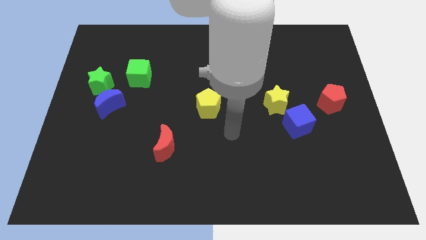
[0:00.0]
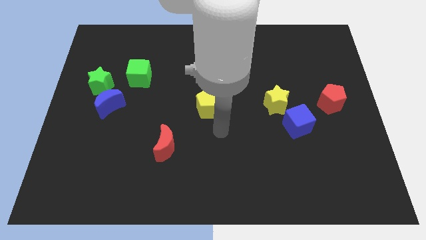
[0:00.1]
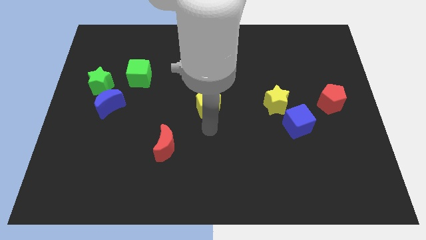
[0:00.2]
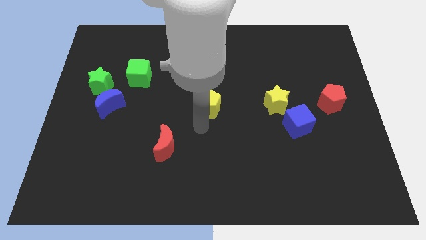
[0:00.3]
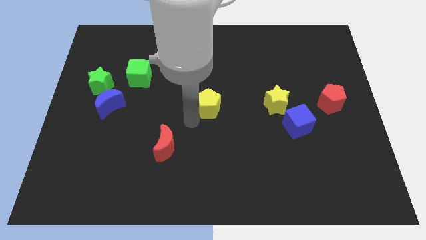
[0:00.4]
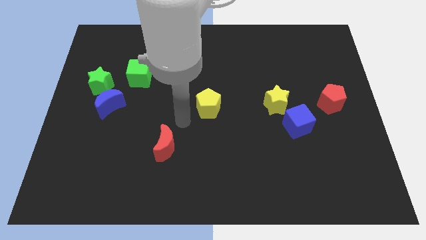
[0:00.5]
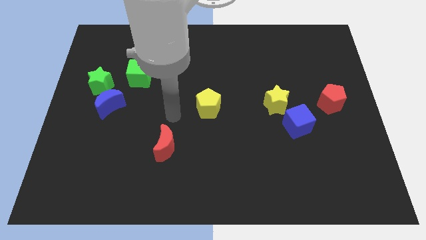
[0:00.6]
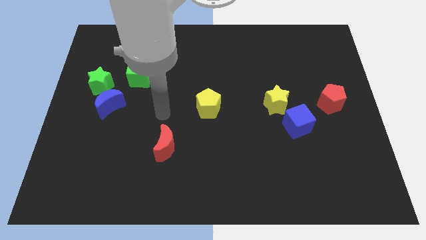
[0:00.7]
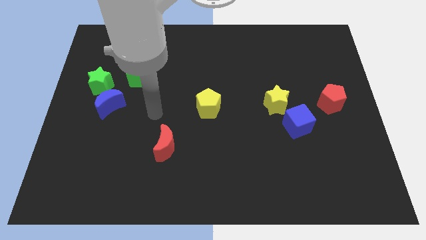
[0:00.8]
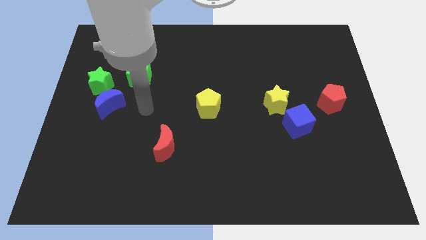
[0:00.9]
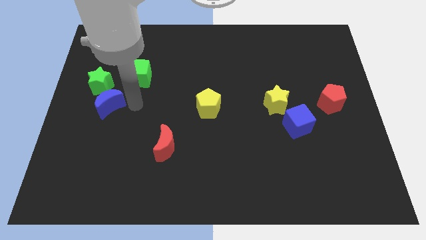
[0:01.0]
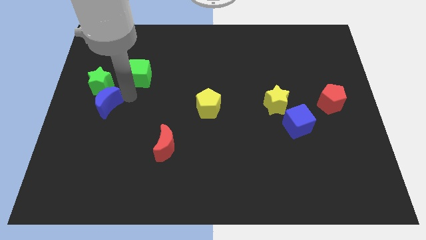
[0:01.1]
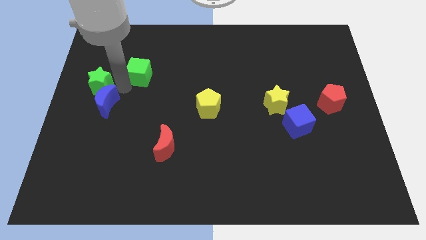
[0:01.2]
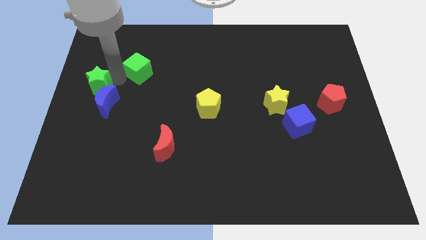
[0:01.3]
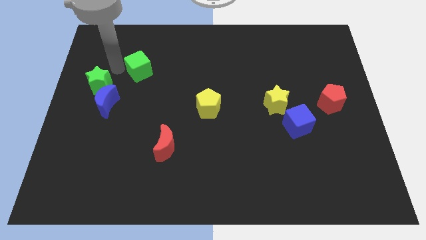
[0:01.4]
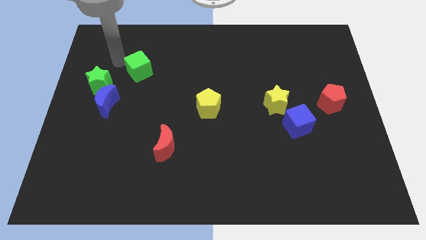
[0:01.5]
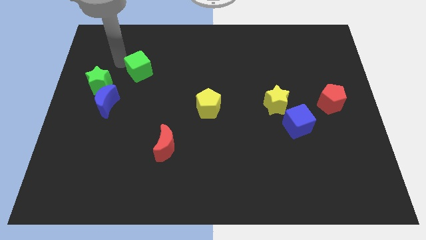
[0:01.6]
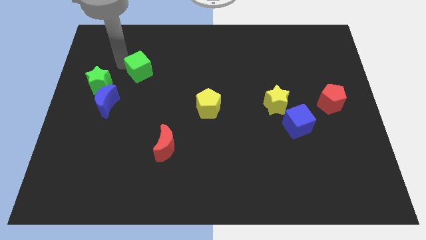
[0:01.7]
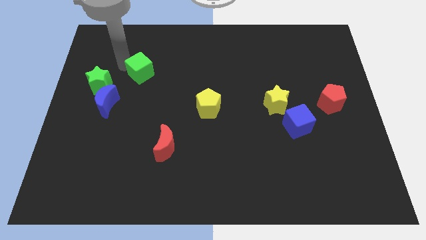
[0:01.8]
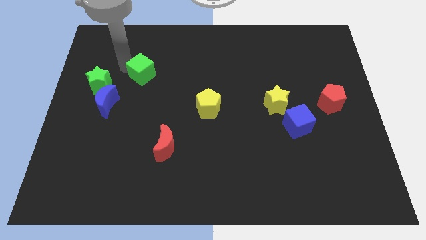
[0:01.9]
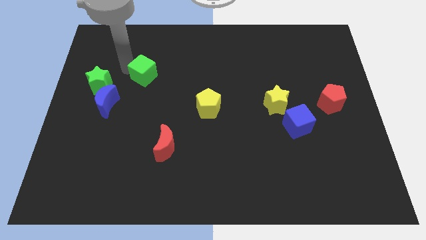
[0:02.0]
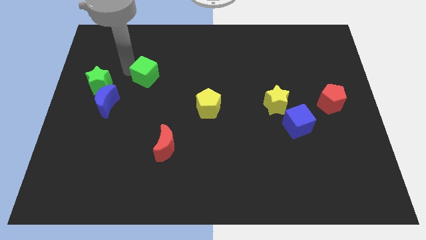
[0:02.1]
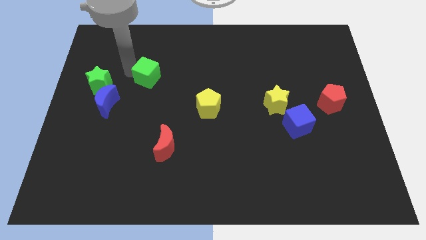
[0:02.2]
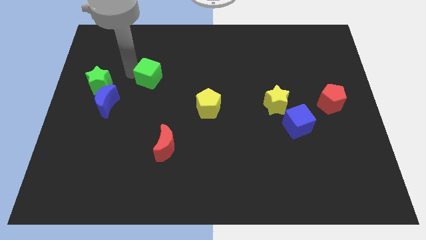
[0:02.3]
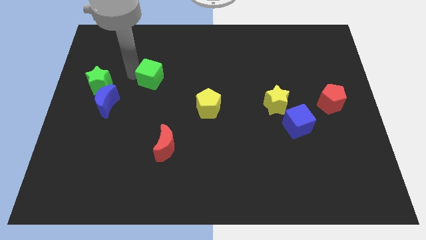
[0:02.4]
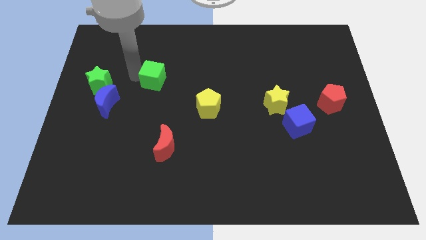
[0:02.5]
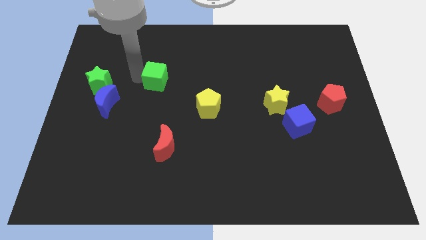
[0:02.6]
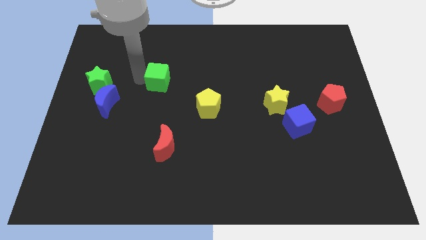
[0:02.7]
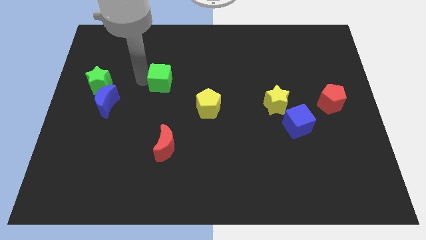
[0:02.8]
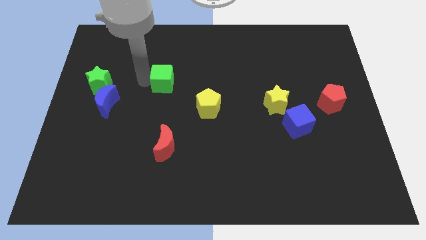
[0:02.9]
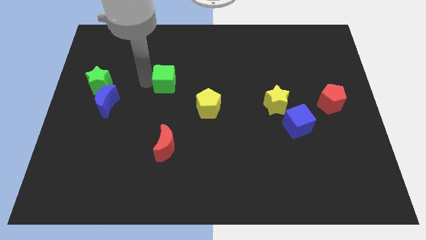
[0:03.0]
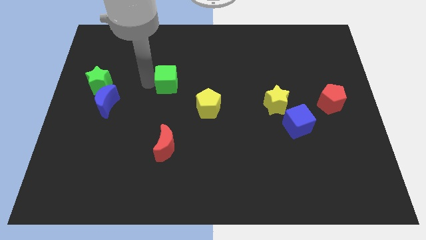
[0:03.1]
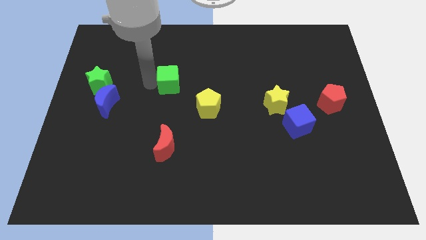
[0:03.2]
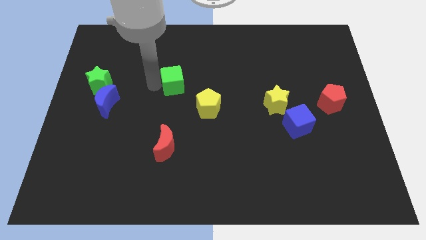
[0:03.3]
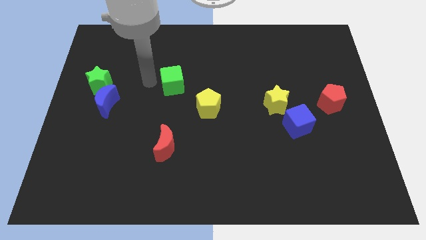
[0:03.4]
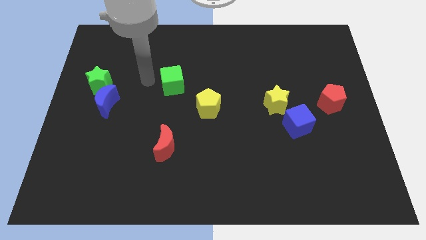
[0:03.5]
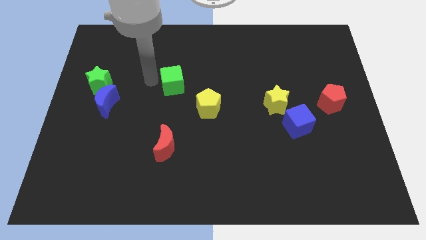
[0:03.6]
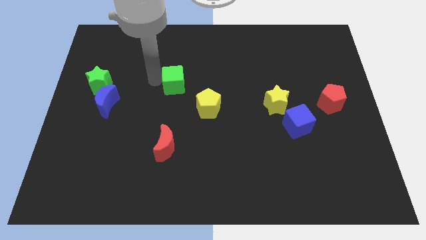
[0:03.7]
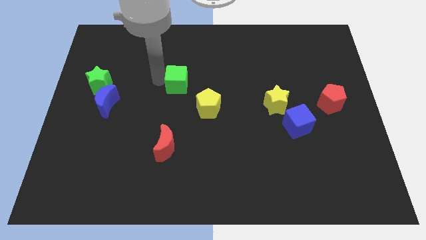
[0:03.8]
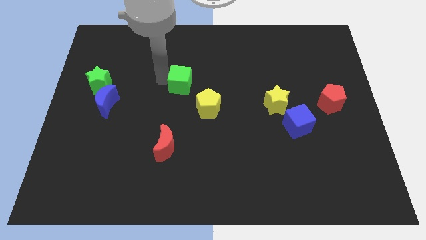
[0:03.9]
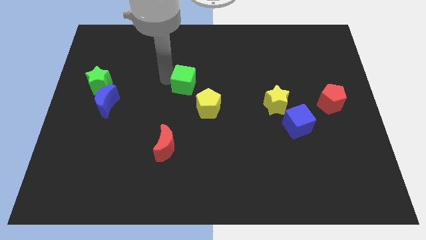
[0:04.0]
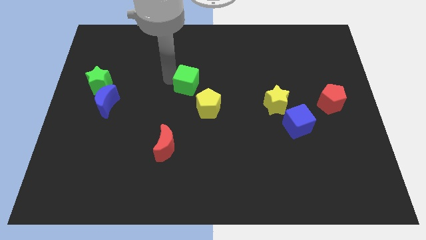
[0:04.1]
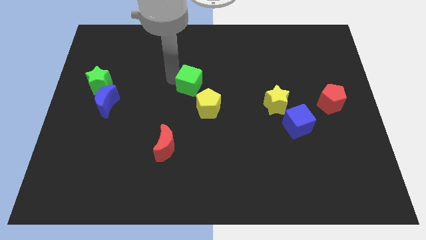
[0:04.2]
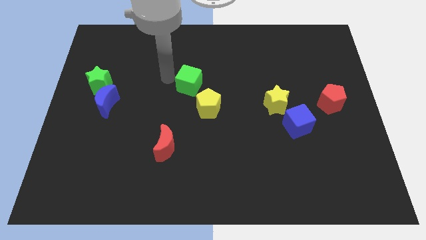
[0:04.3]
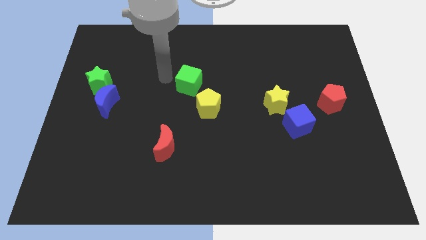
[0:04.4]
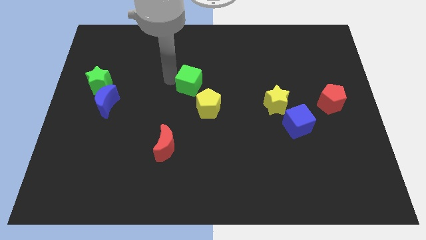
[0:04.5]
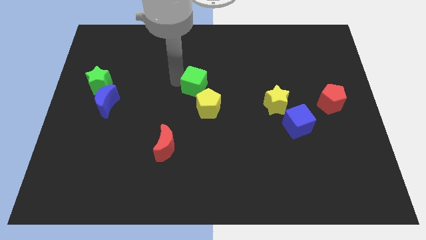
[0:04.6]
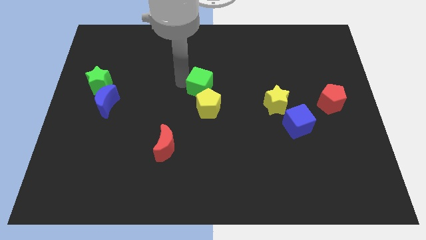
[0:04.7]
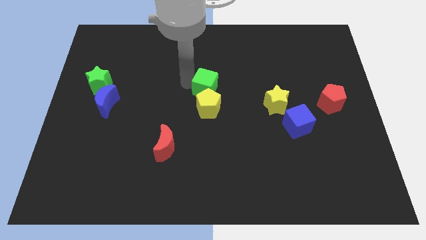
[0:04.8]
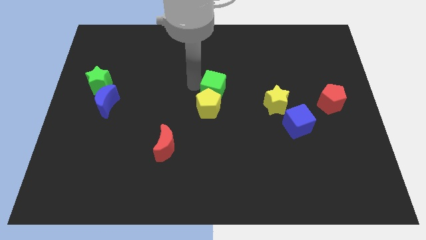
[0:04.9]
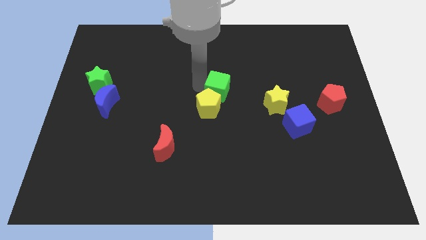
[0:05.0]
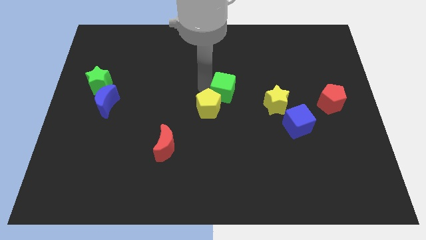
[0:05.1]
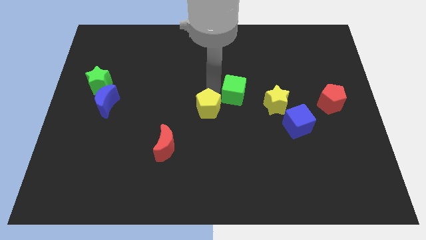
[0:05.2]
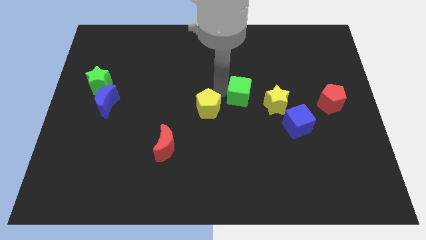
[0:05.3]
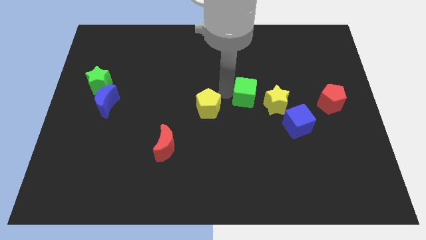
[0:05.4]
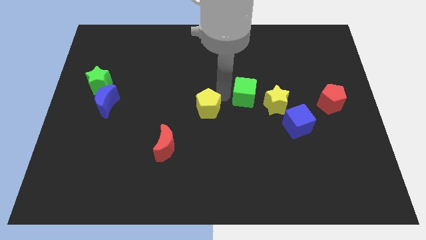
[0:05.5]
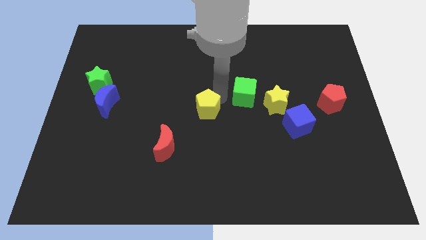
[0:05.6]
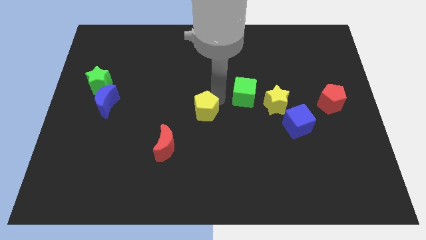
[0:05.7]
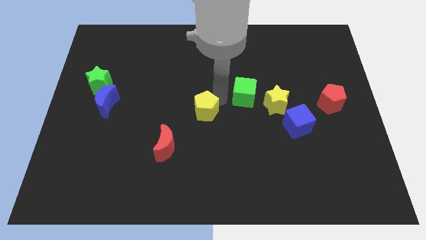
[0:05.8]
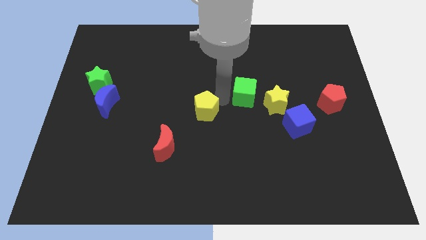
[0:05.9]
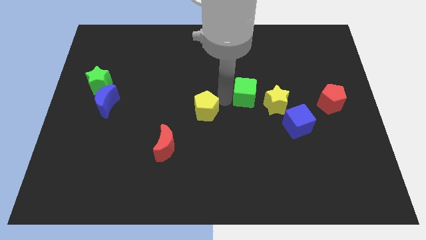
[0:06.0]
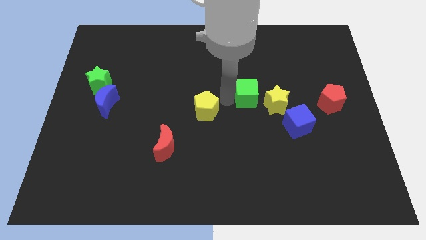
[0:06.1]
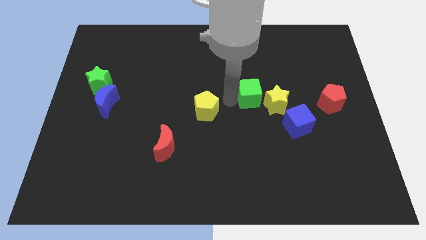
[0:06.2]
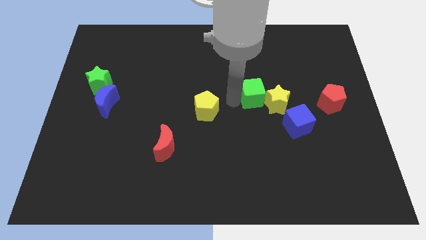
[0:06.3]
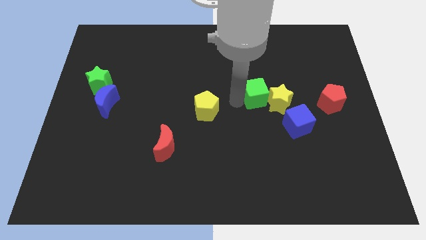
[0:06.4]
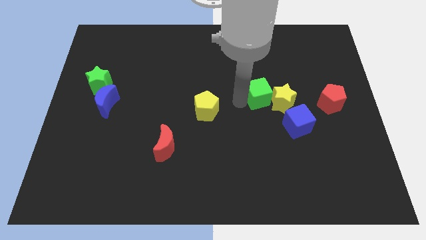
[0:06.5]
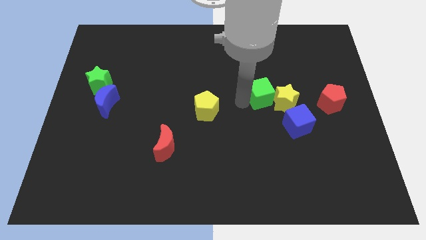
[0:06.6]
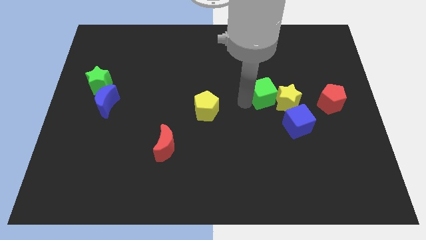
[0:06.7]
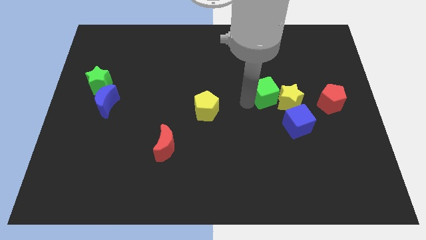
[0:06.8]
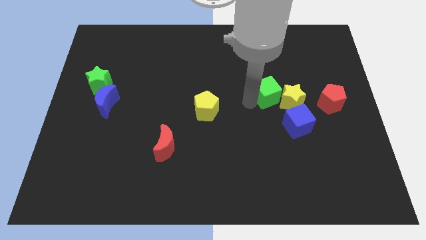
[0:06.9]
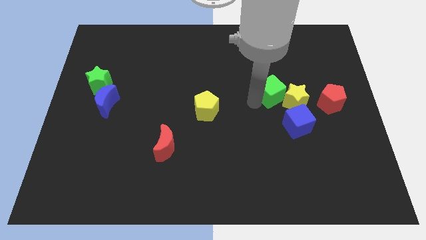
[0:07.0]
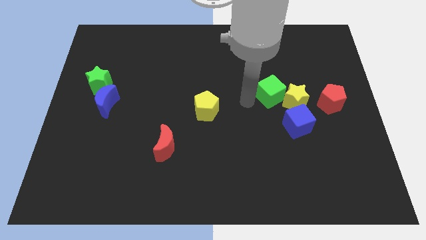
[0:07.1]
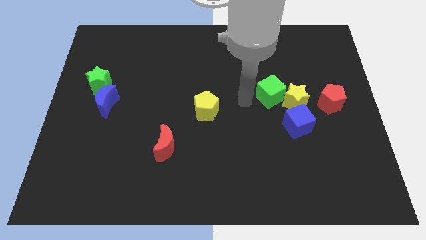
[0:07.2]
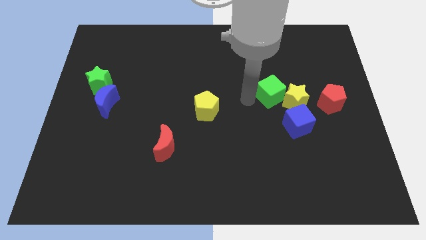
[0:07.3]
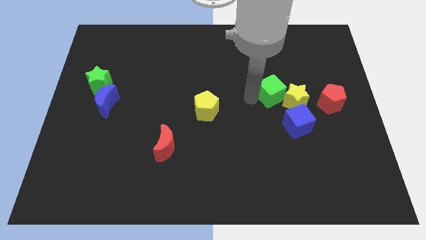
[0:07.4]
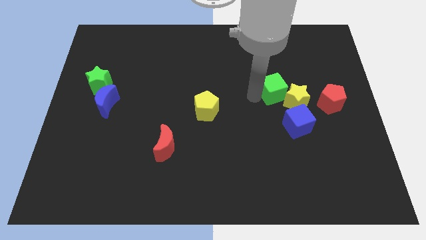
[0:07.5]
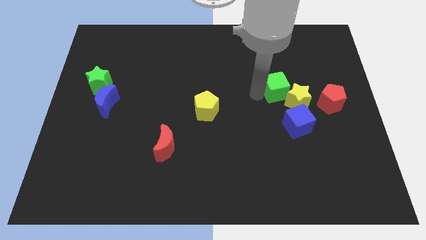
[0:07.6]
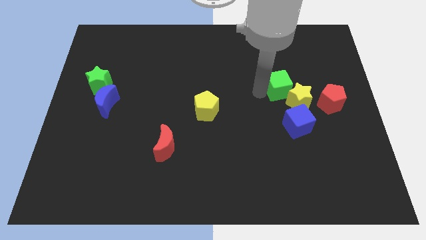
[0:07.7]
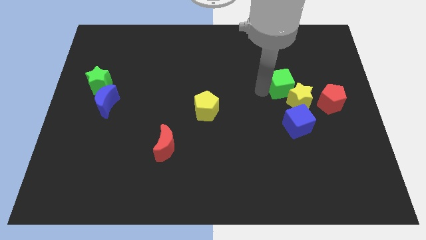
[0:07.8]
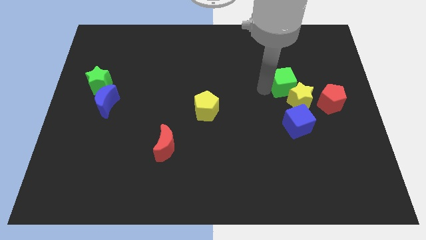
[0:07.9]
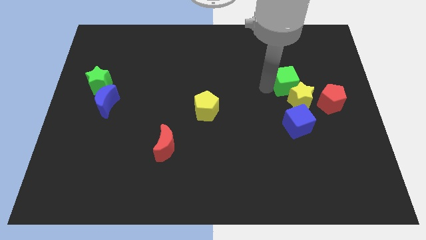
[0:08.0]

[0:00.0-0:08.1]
put the green cube diagonally up and to the left of the red pentagon
